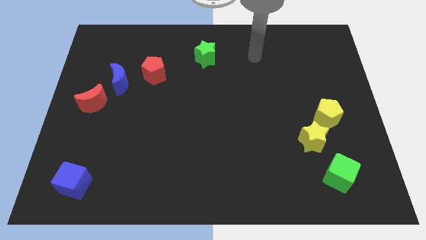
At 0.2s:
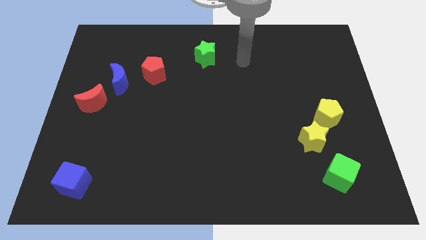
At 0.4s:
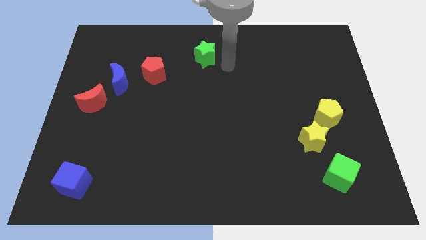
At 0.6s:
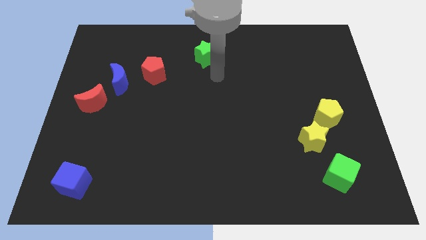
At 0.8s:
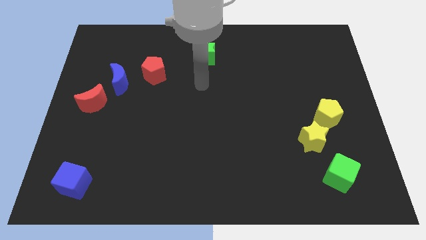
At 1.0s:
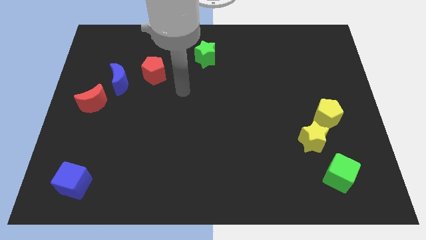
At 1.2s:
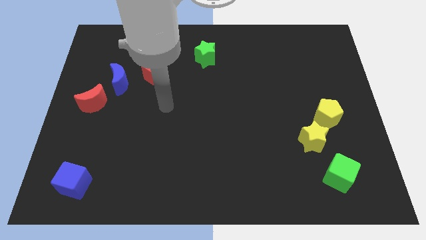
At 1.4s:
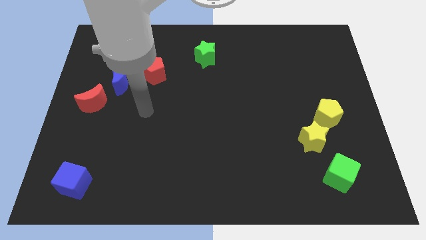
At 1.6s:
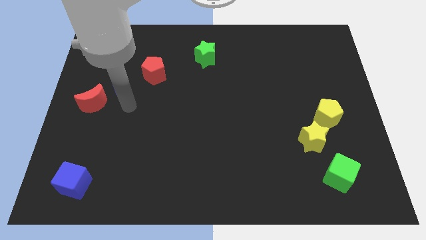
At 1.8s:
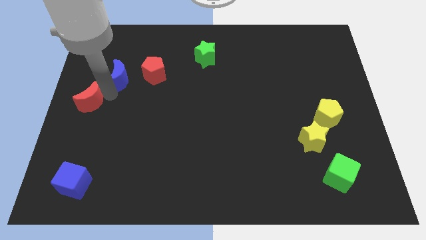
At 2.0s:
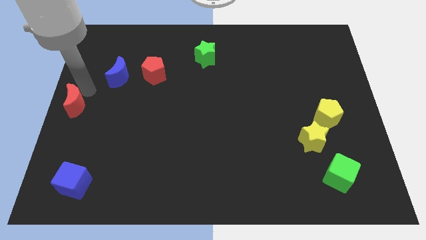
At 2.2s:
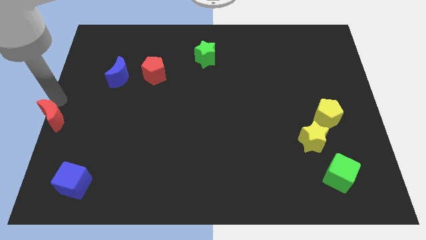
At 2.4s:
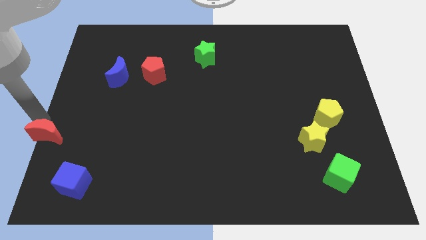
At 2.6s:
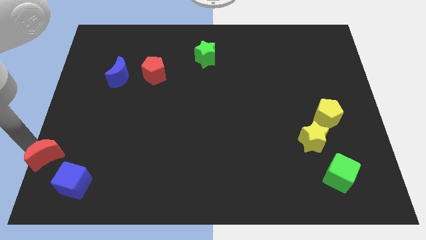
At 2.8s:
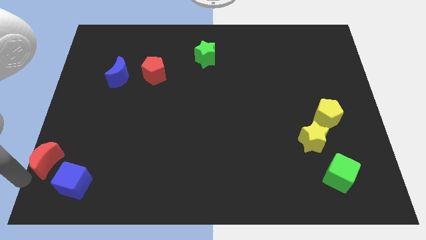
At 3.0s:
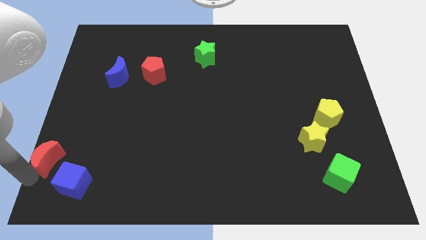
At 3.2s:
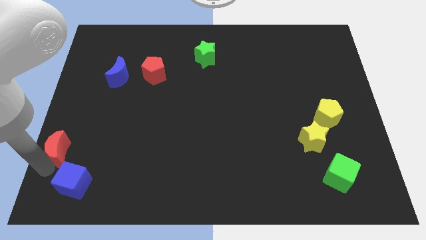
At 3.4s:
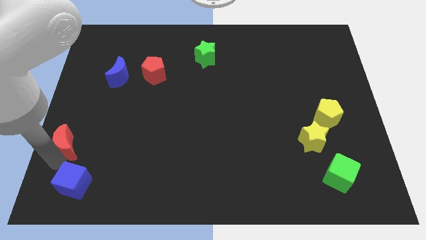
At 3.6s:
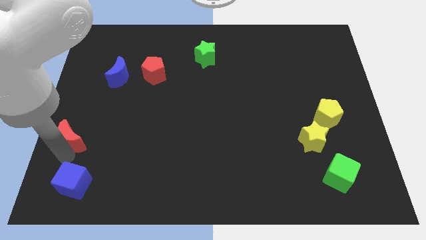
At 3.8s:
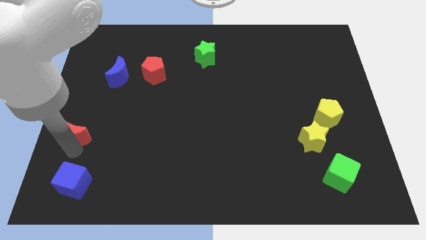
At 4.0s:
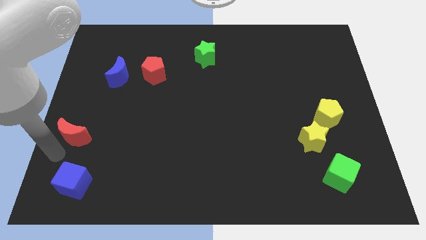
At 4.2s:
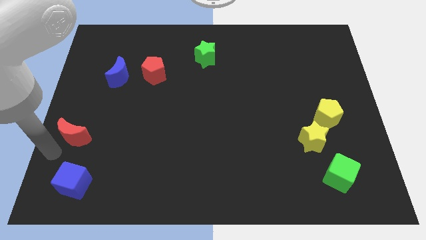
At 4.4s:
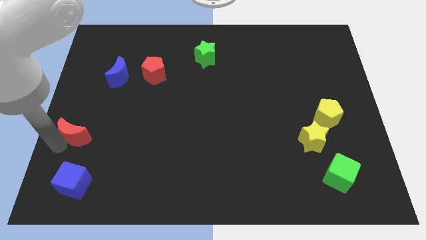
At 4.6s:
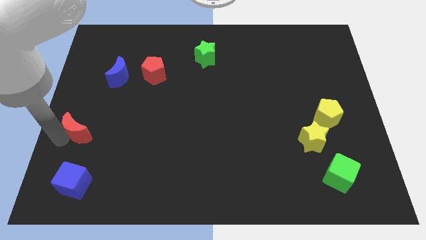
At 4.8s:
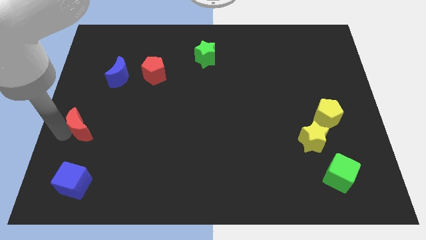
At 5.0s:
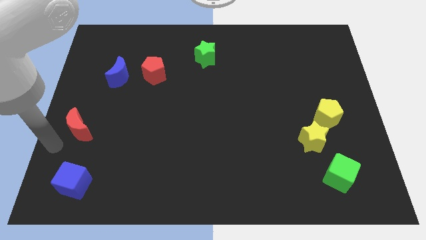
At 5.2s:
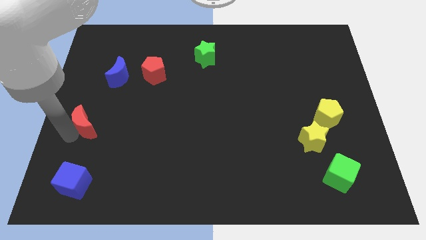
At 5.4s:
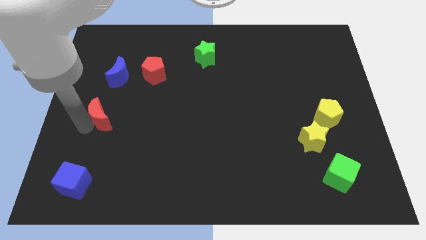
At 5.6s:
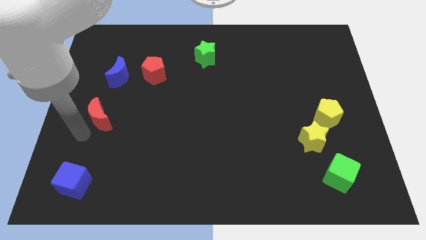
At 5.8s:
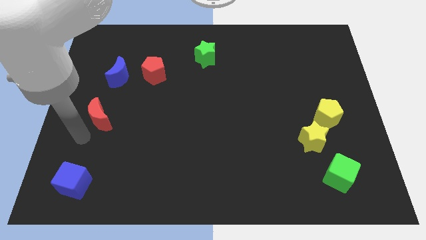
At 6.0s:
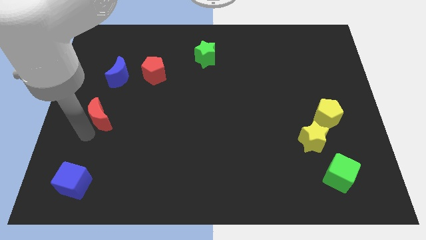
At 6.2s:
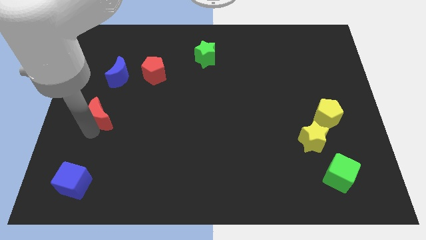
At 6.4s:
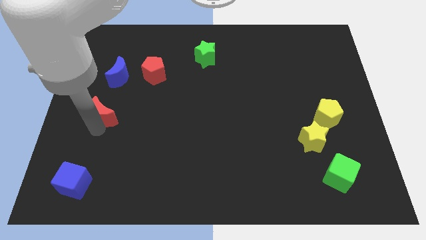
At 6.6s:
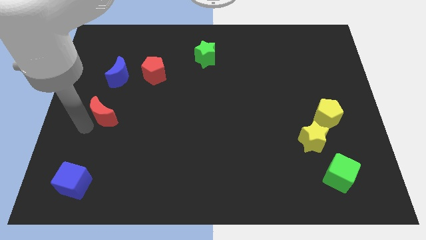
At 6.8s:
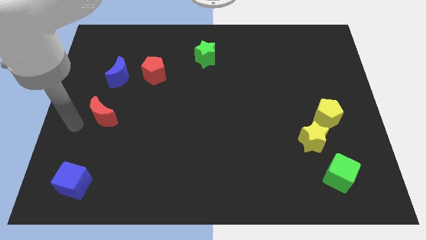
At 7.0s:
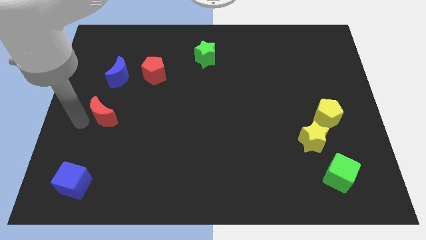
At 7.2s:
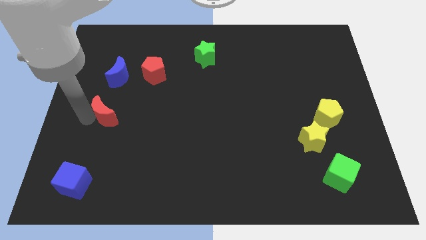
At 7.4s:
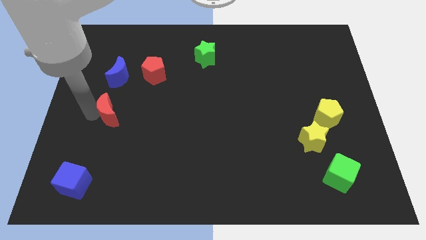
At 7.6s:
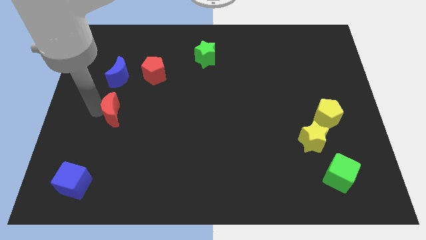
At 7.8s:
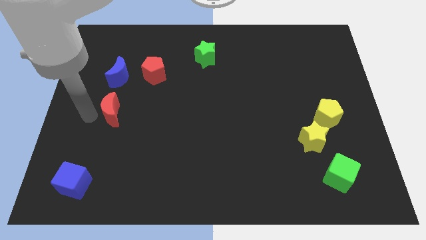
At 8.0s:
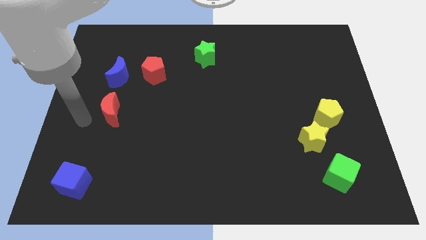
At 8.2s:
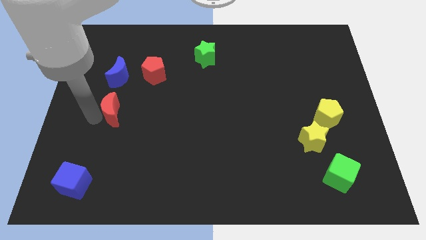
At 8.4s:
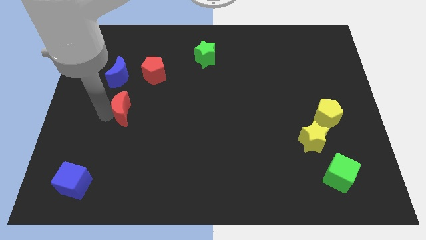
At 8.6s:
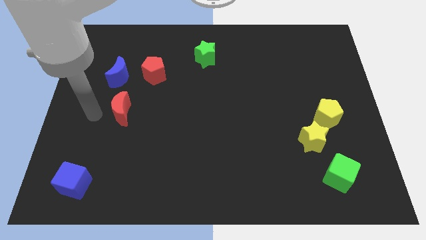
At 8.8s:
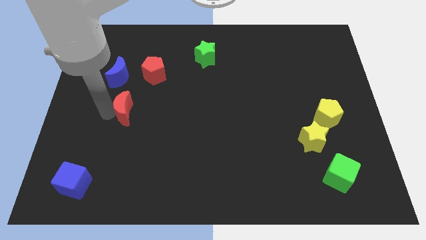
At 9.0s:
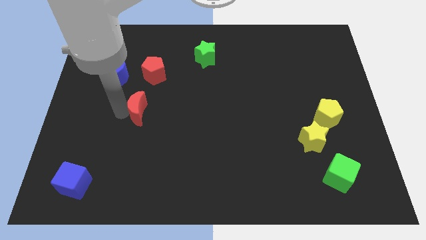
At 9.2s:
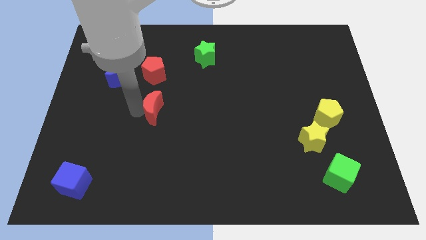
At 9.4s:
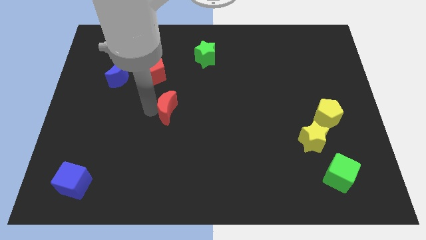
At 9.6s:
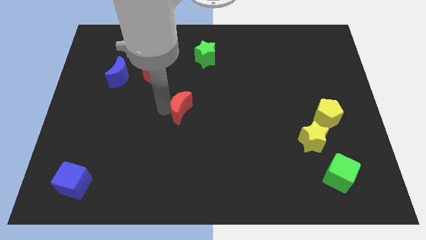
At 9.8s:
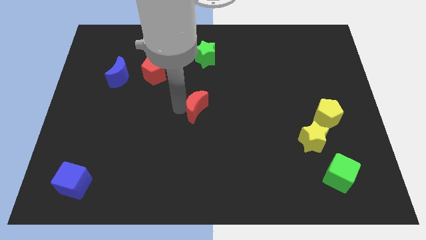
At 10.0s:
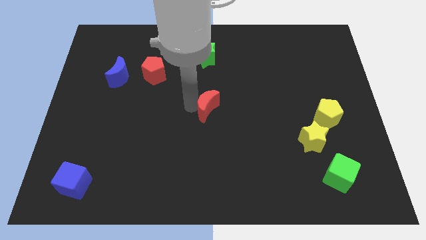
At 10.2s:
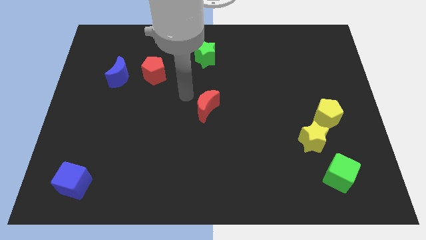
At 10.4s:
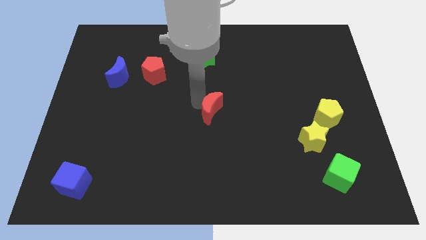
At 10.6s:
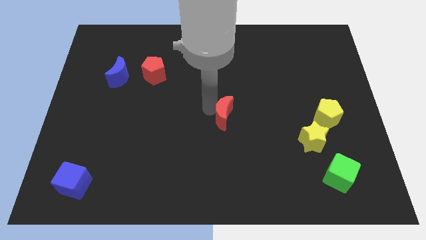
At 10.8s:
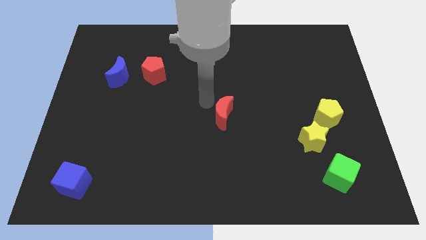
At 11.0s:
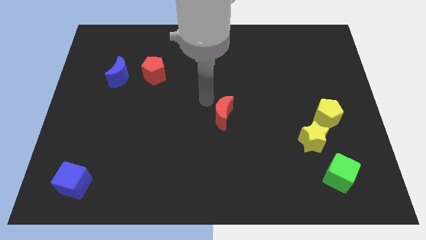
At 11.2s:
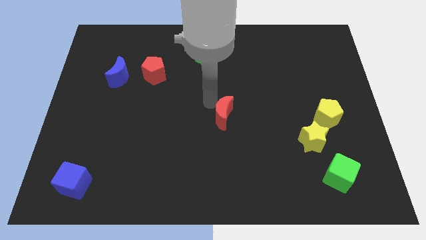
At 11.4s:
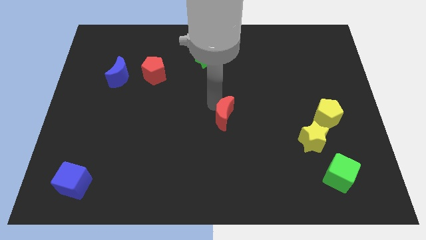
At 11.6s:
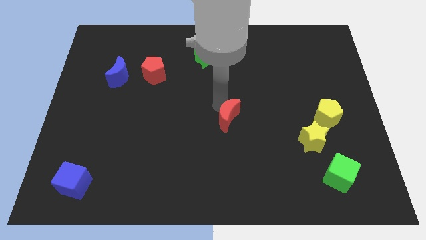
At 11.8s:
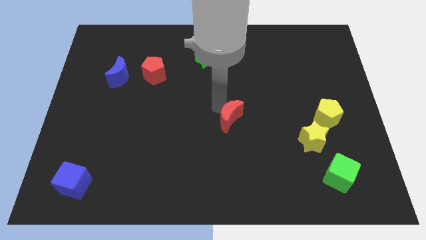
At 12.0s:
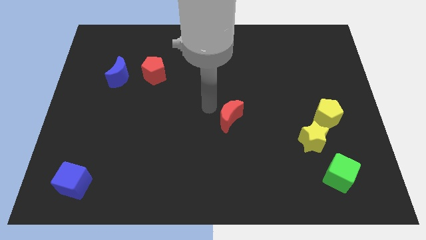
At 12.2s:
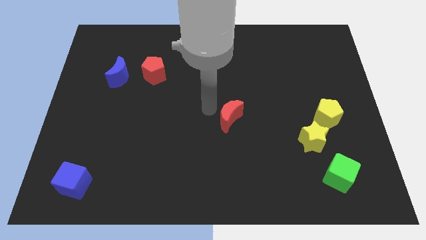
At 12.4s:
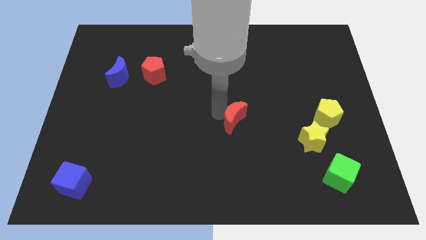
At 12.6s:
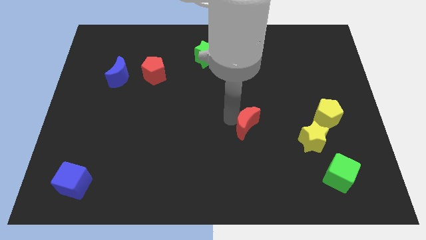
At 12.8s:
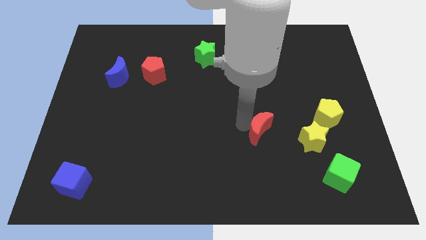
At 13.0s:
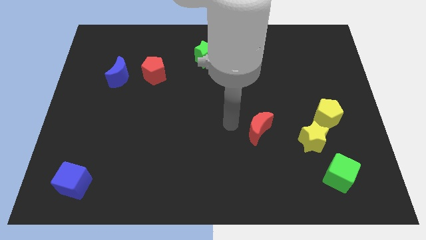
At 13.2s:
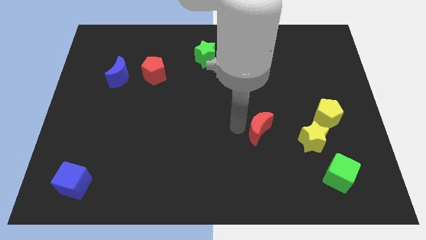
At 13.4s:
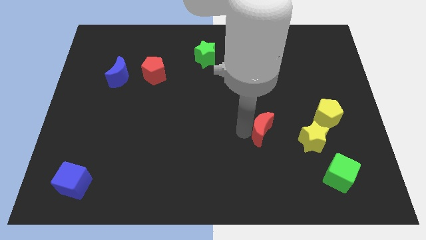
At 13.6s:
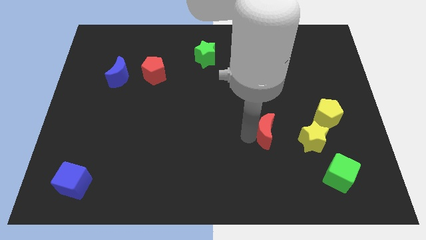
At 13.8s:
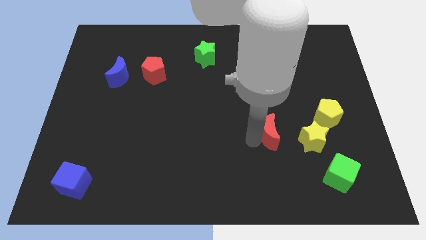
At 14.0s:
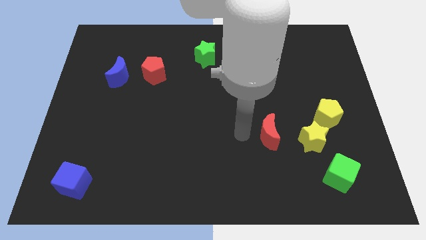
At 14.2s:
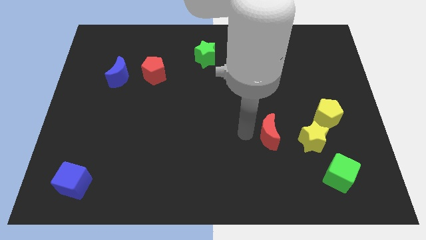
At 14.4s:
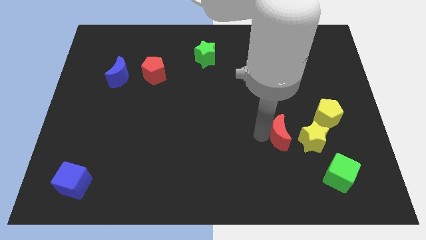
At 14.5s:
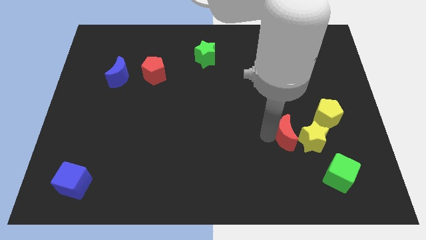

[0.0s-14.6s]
push the red moon to the yellow star
